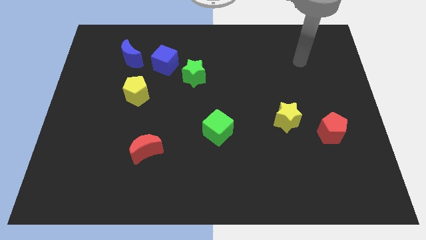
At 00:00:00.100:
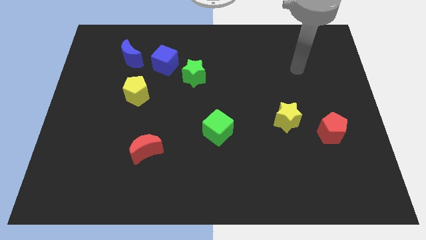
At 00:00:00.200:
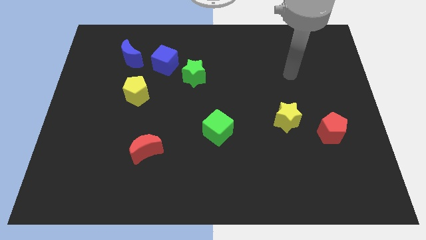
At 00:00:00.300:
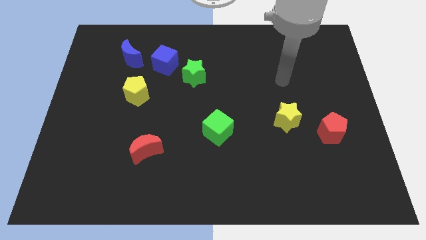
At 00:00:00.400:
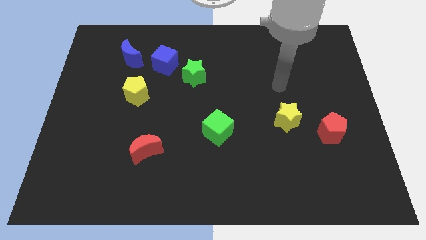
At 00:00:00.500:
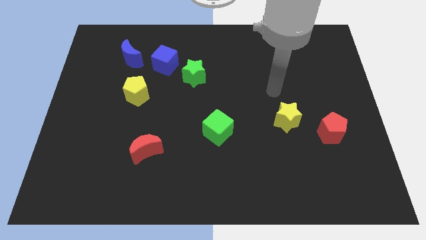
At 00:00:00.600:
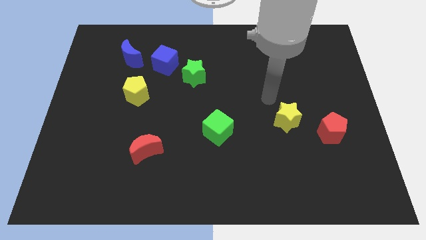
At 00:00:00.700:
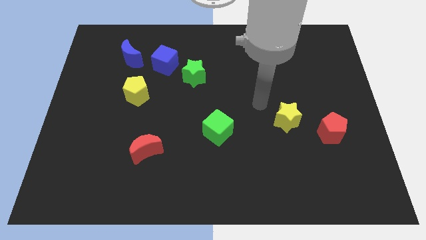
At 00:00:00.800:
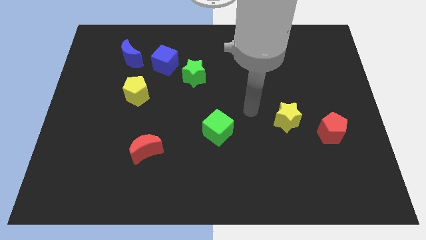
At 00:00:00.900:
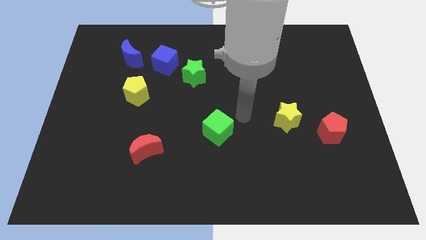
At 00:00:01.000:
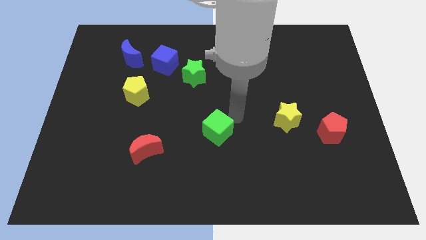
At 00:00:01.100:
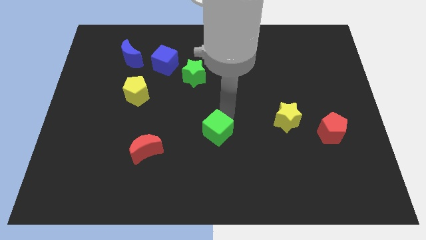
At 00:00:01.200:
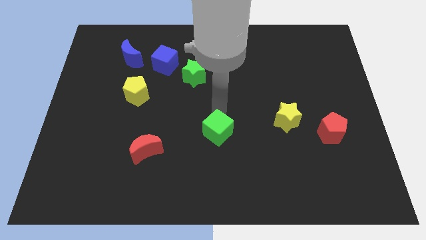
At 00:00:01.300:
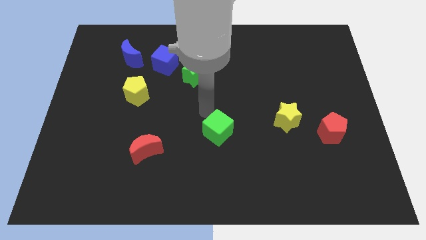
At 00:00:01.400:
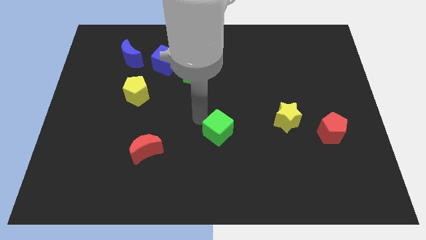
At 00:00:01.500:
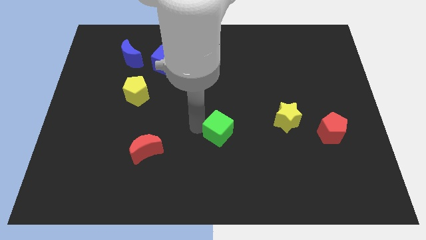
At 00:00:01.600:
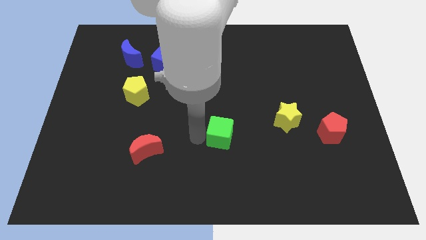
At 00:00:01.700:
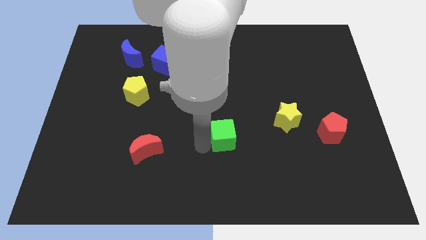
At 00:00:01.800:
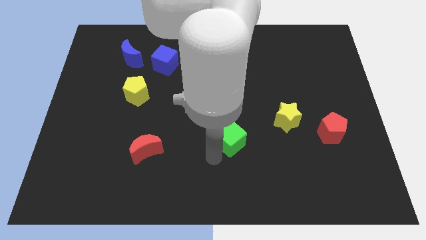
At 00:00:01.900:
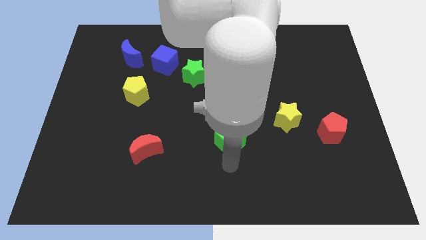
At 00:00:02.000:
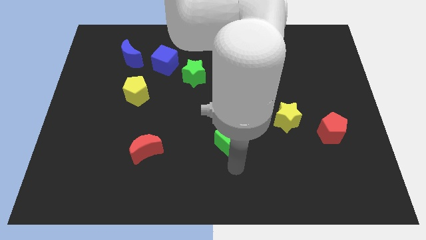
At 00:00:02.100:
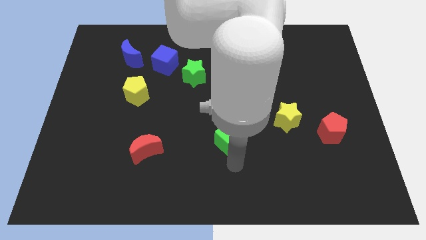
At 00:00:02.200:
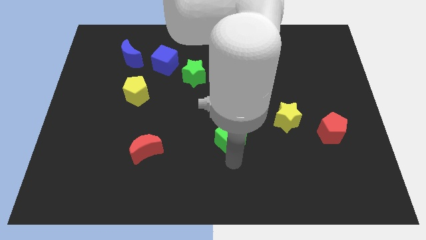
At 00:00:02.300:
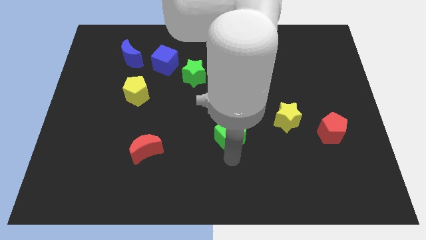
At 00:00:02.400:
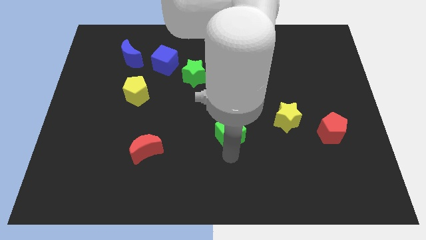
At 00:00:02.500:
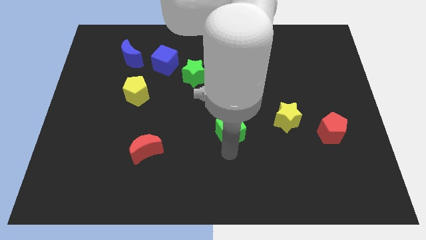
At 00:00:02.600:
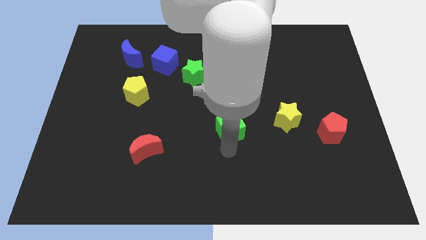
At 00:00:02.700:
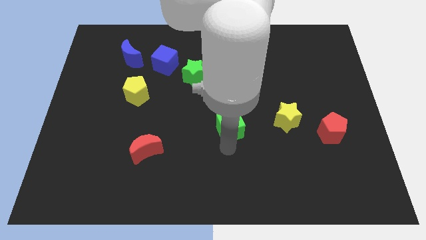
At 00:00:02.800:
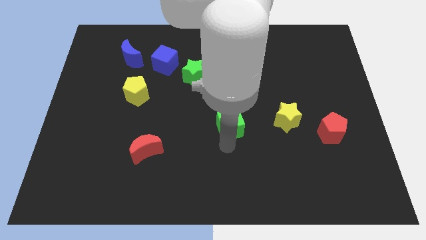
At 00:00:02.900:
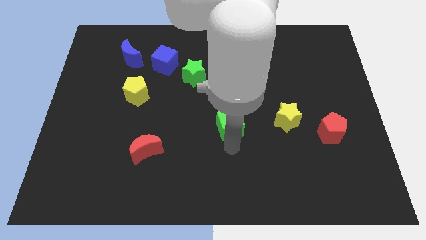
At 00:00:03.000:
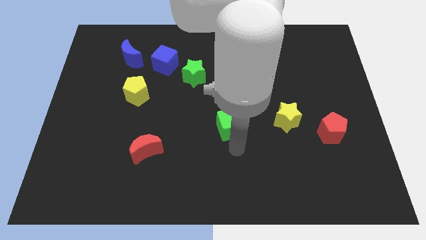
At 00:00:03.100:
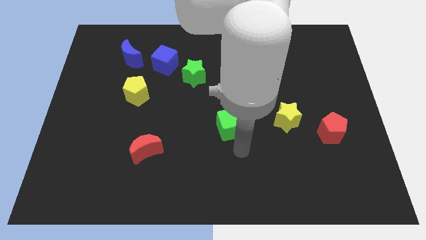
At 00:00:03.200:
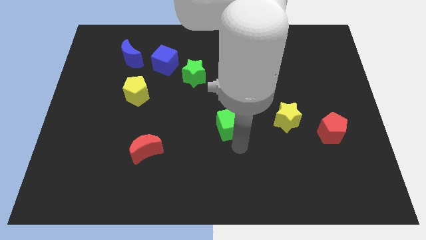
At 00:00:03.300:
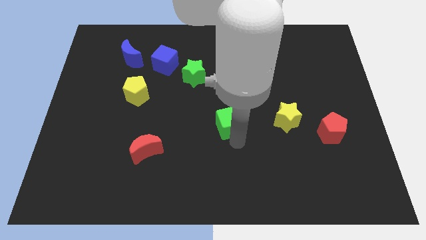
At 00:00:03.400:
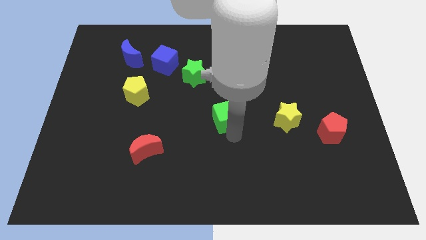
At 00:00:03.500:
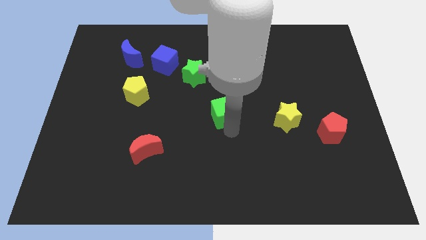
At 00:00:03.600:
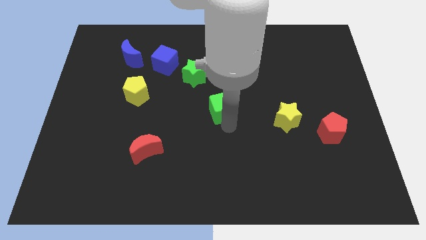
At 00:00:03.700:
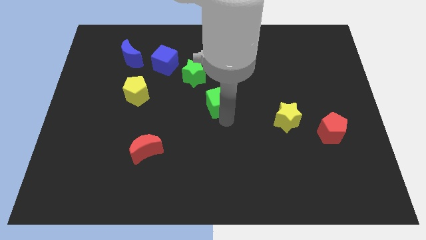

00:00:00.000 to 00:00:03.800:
slide the green cube upwards a little

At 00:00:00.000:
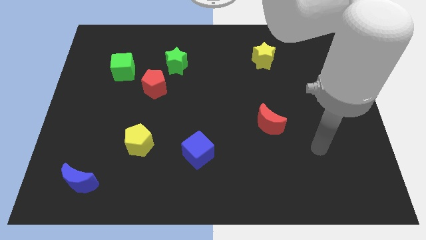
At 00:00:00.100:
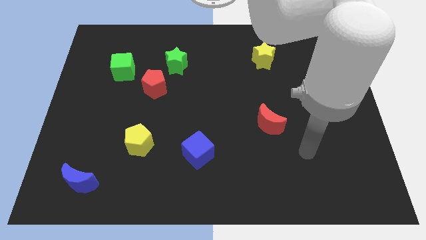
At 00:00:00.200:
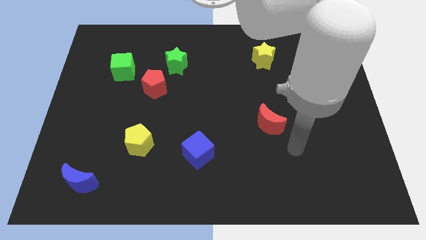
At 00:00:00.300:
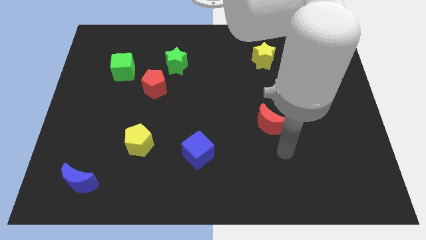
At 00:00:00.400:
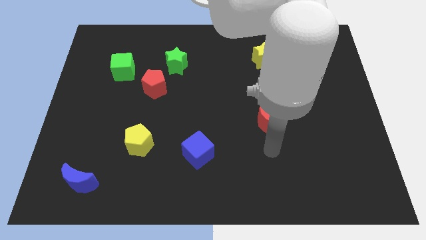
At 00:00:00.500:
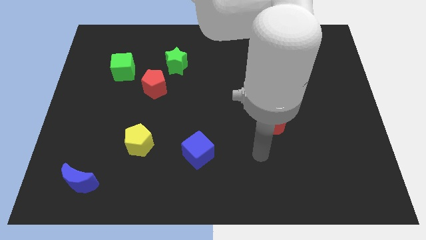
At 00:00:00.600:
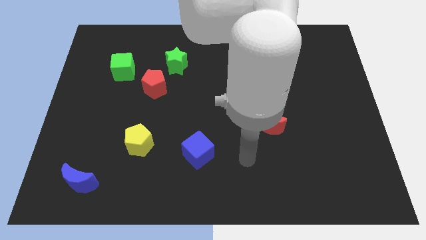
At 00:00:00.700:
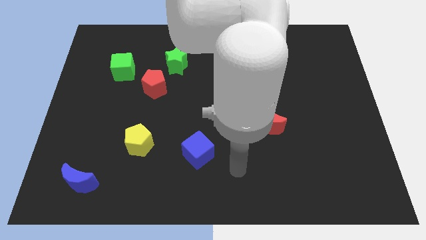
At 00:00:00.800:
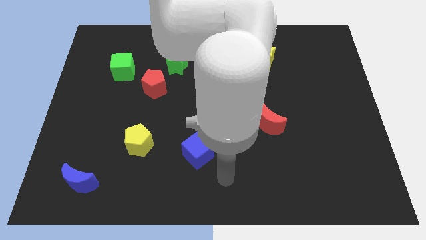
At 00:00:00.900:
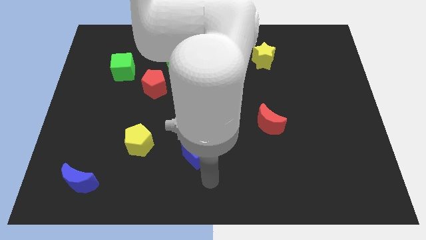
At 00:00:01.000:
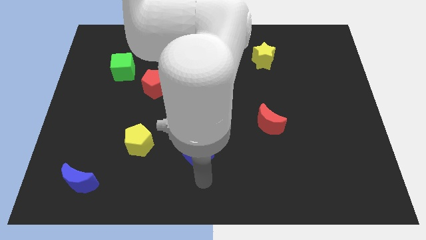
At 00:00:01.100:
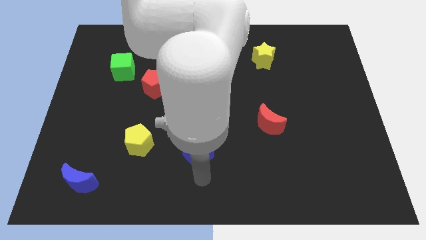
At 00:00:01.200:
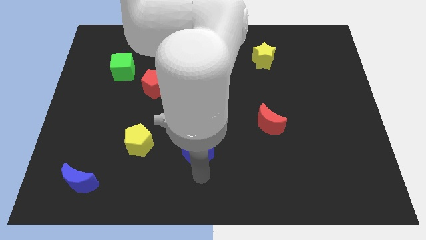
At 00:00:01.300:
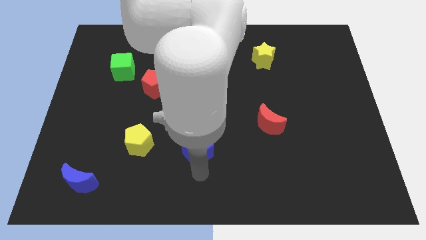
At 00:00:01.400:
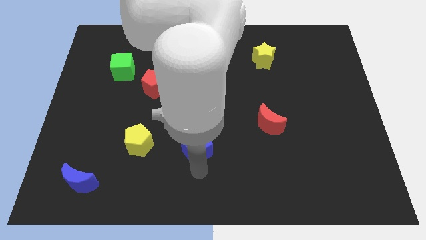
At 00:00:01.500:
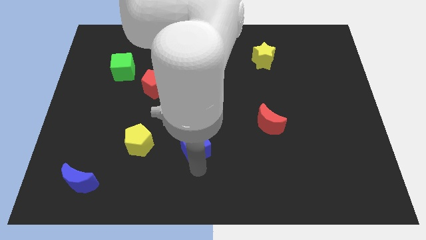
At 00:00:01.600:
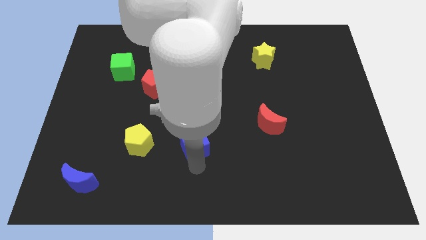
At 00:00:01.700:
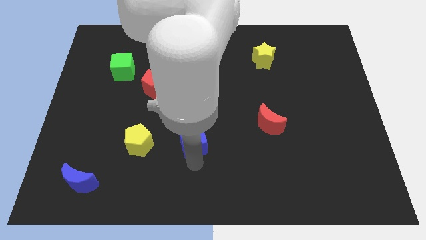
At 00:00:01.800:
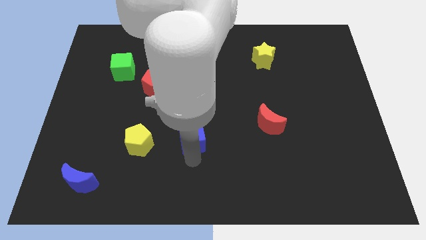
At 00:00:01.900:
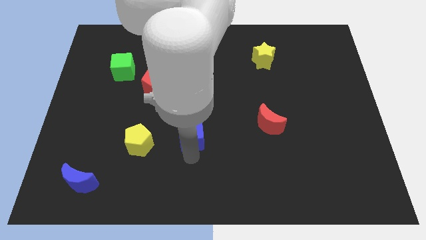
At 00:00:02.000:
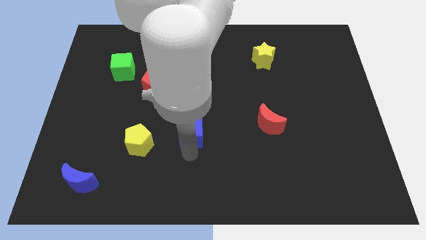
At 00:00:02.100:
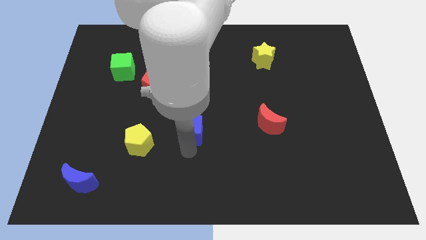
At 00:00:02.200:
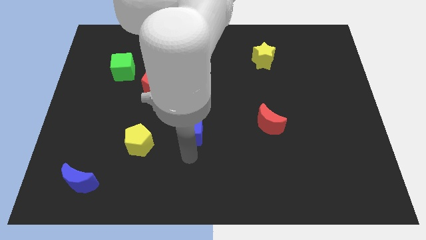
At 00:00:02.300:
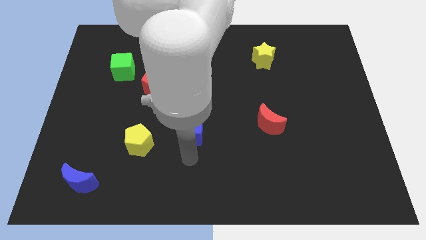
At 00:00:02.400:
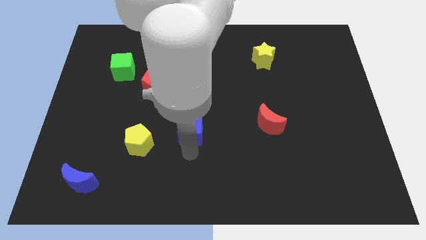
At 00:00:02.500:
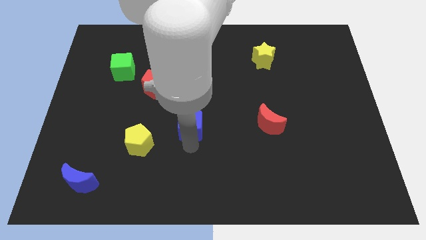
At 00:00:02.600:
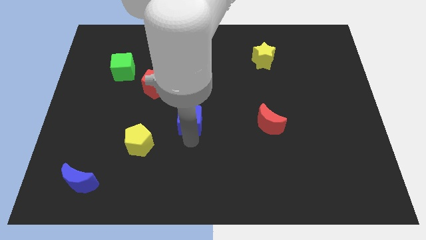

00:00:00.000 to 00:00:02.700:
move the blue cube a little bit up

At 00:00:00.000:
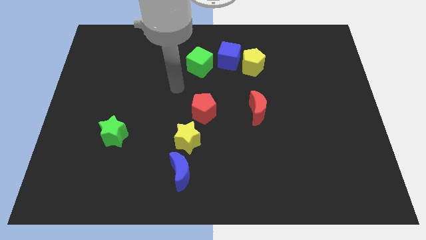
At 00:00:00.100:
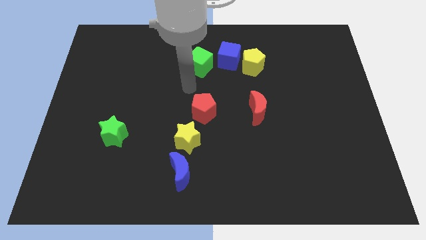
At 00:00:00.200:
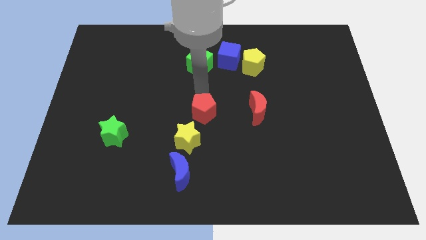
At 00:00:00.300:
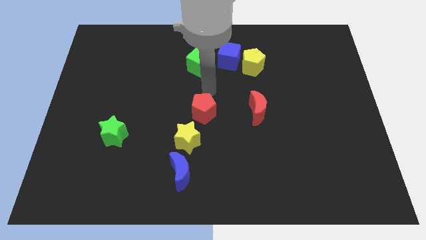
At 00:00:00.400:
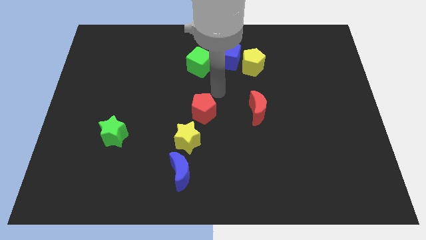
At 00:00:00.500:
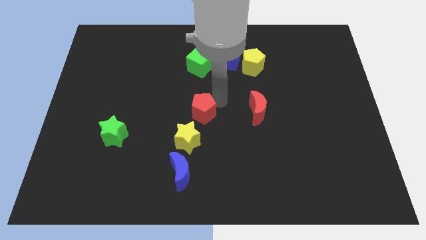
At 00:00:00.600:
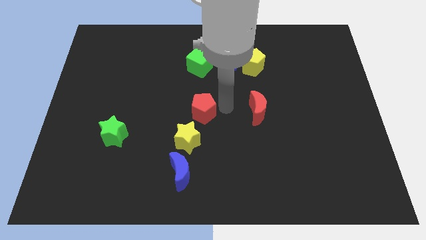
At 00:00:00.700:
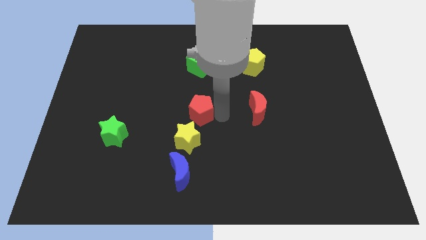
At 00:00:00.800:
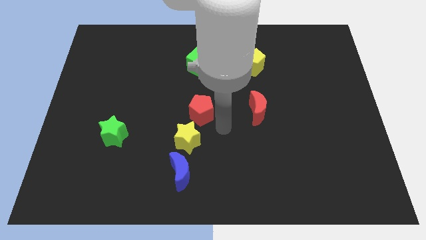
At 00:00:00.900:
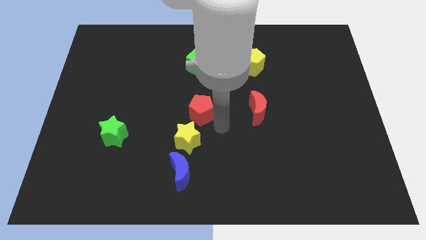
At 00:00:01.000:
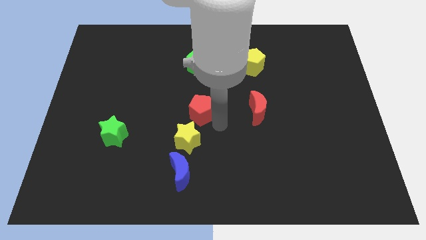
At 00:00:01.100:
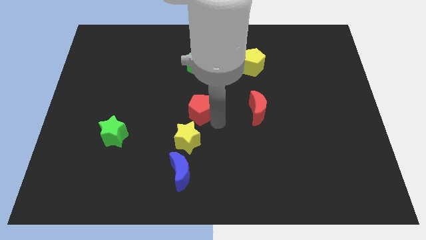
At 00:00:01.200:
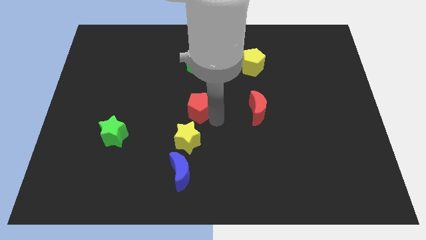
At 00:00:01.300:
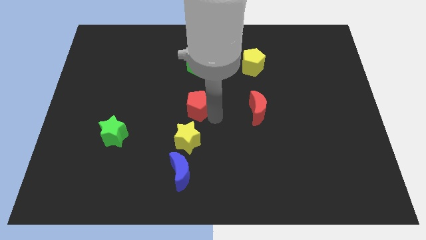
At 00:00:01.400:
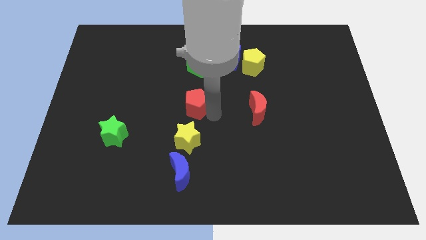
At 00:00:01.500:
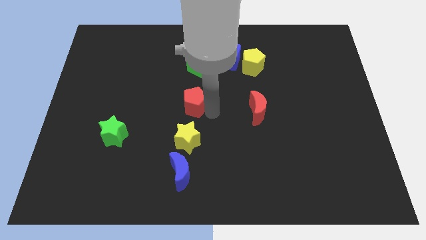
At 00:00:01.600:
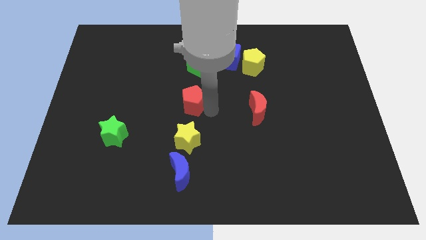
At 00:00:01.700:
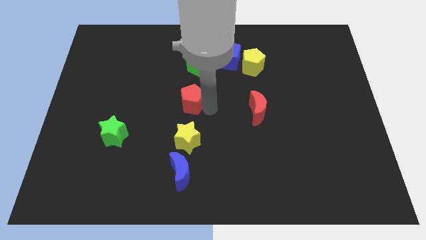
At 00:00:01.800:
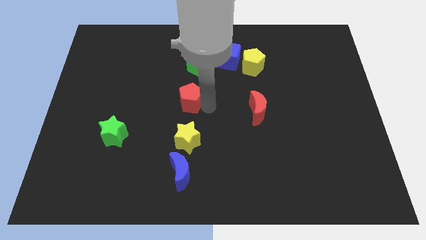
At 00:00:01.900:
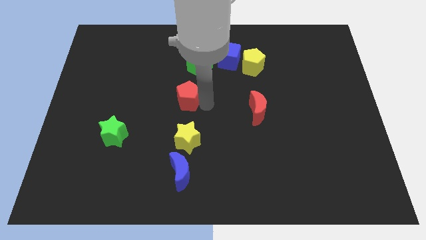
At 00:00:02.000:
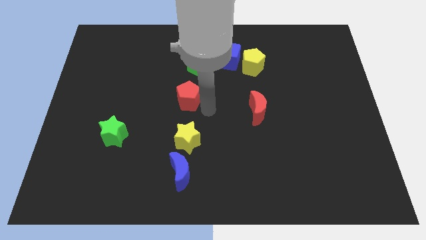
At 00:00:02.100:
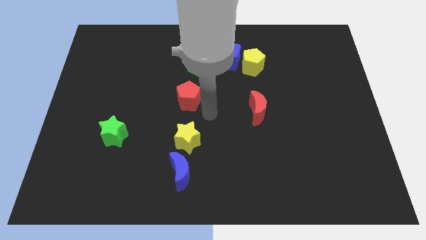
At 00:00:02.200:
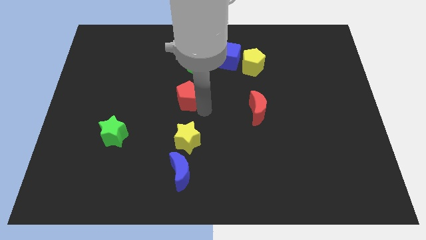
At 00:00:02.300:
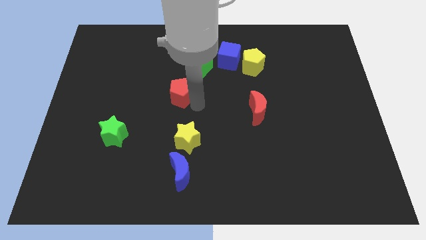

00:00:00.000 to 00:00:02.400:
slide the red pentagon up and then left somewhat
